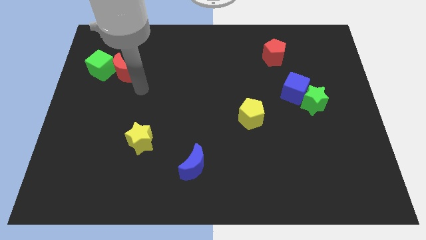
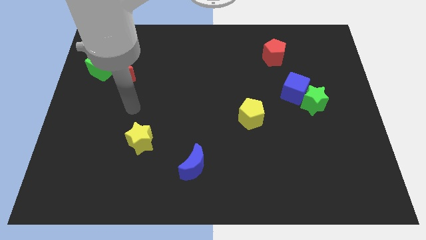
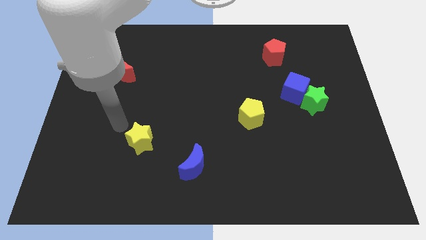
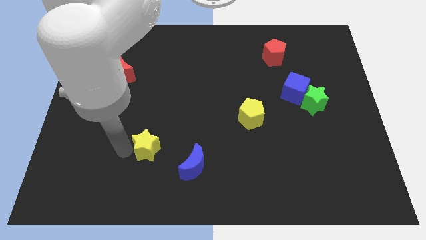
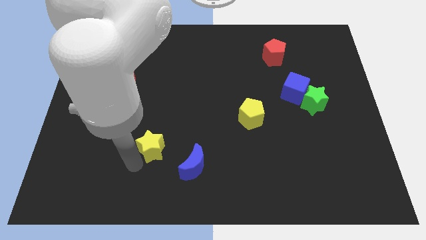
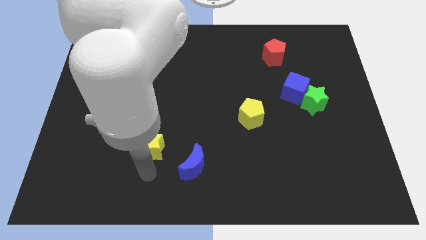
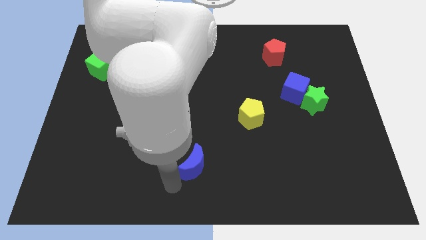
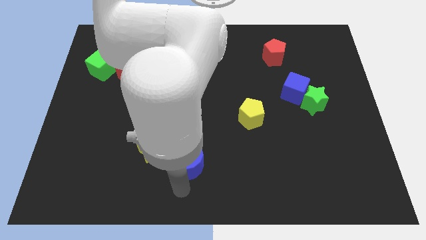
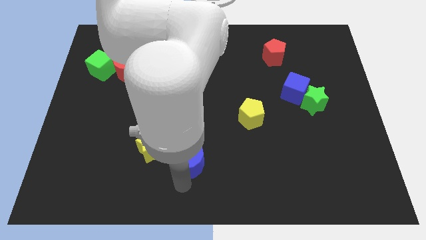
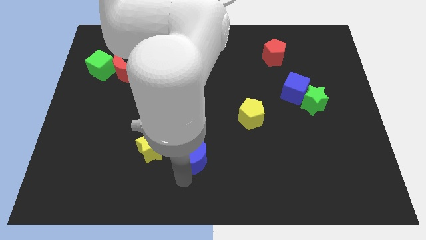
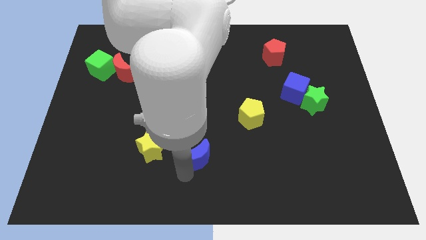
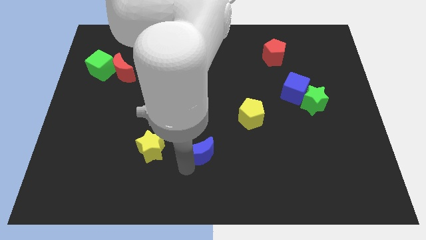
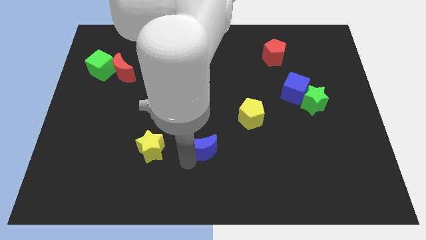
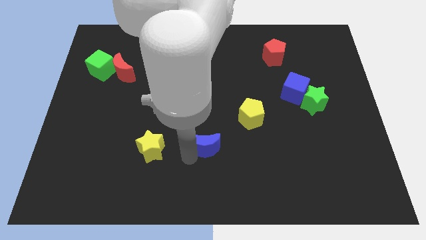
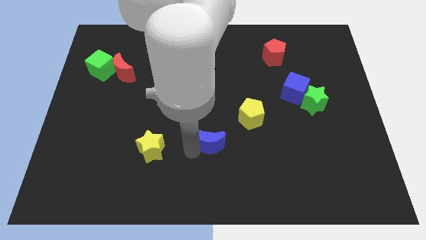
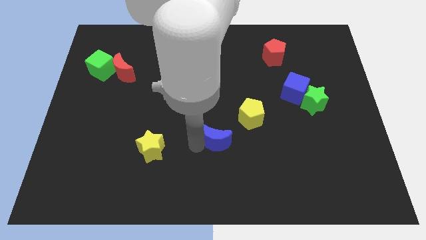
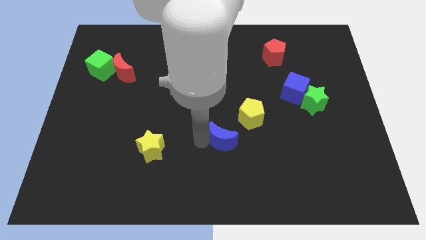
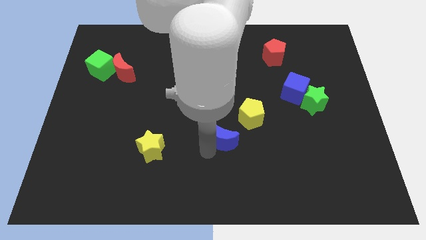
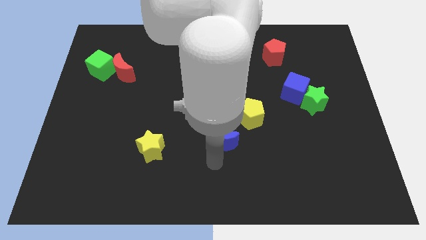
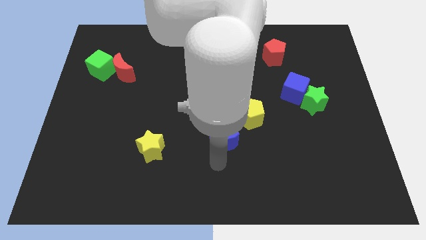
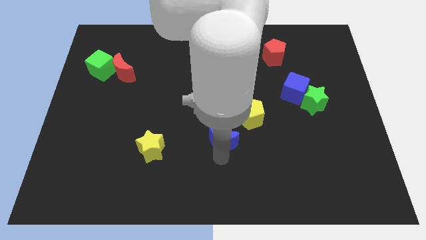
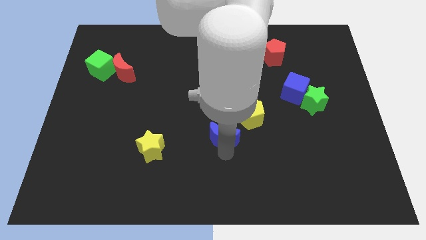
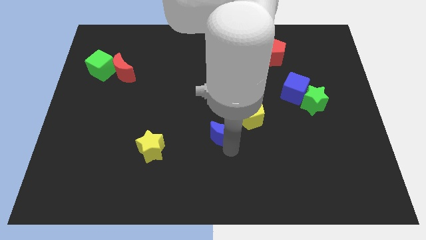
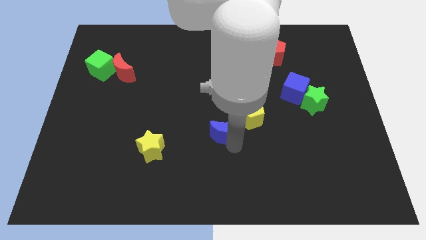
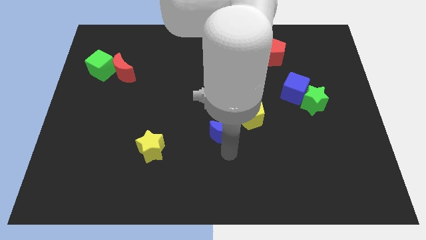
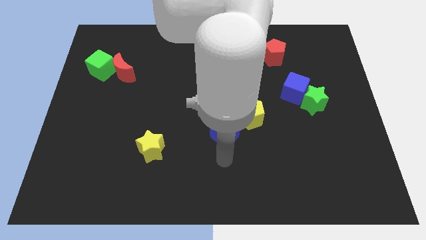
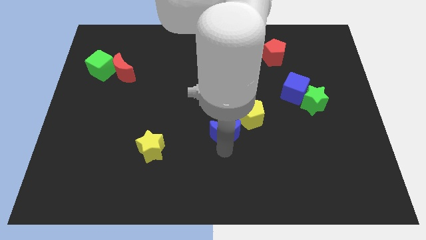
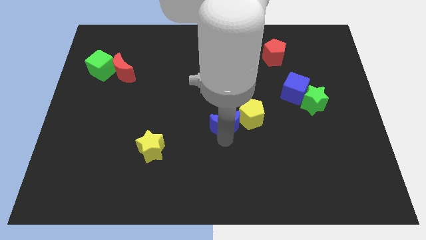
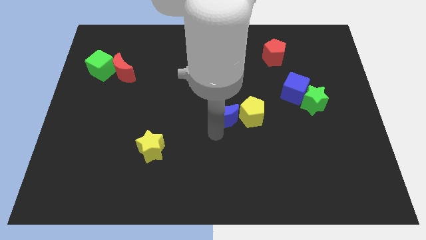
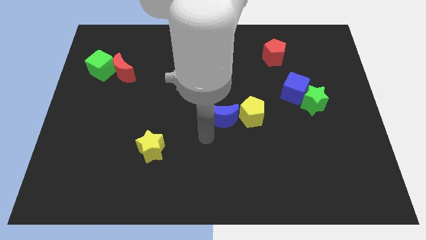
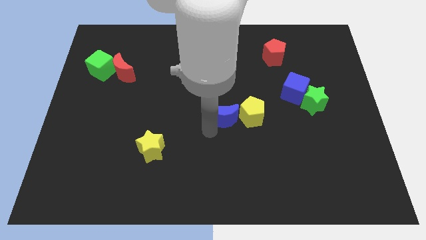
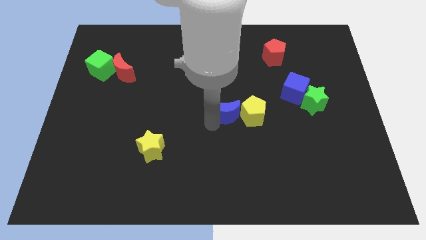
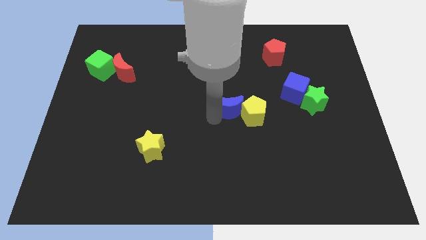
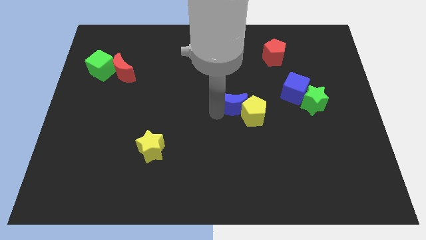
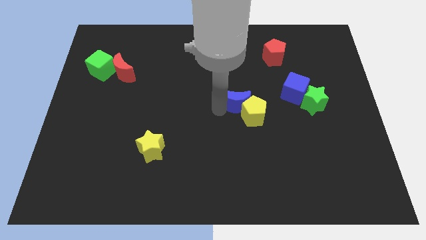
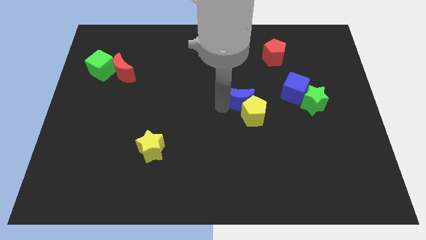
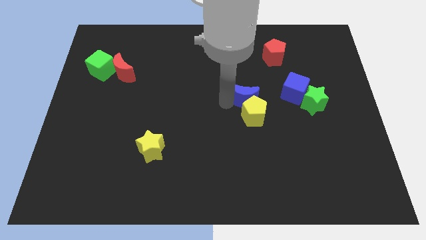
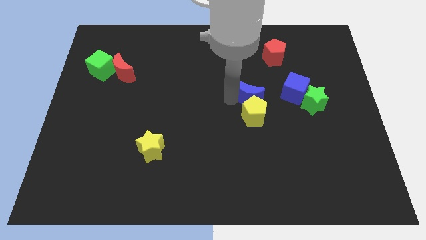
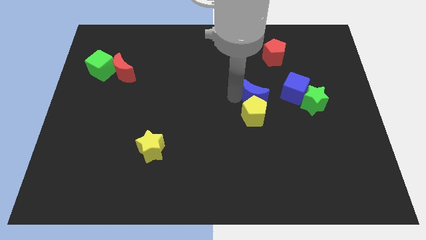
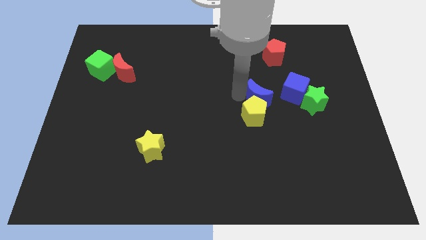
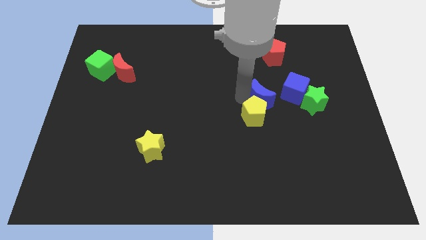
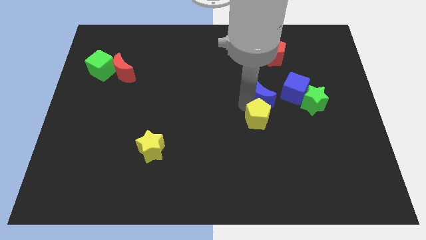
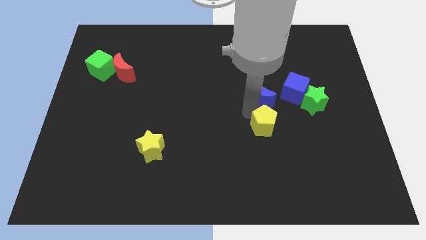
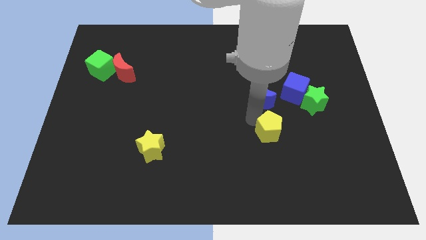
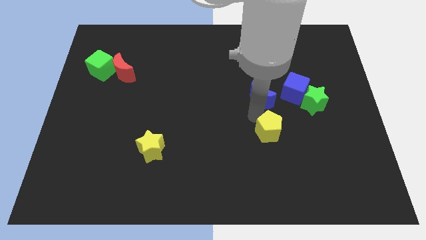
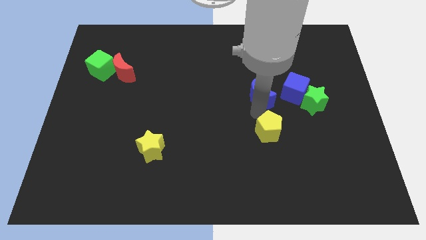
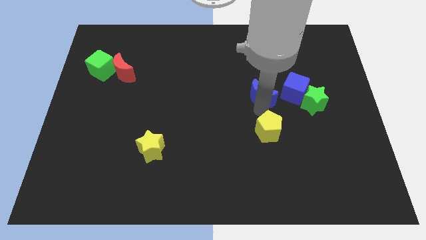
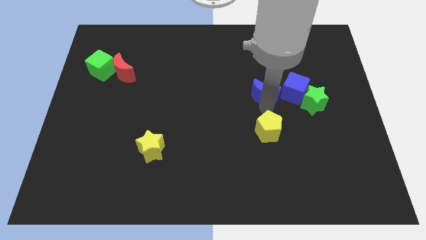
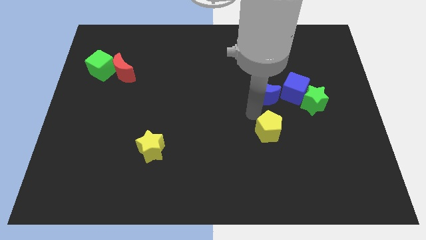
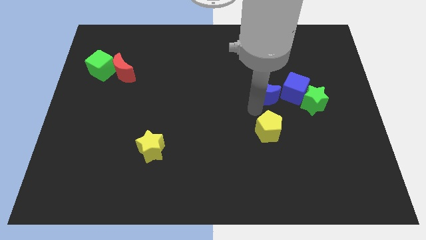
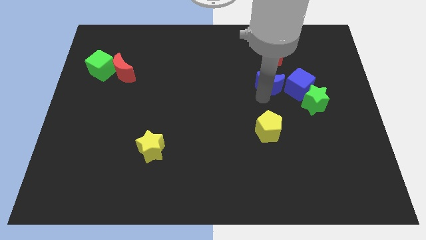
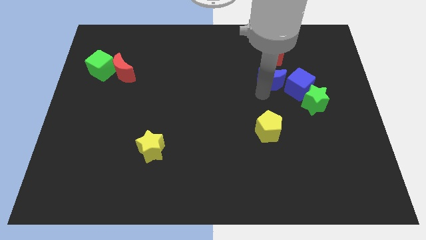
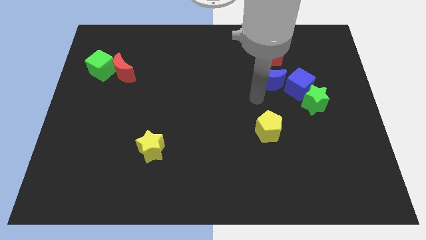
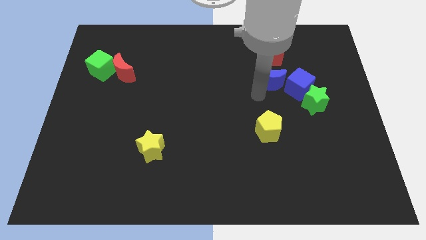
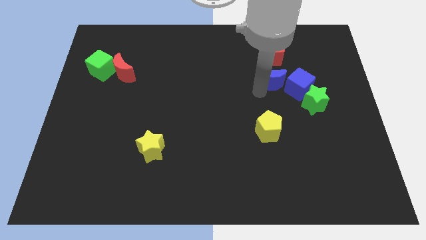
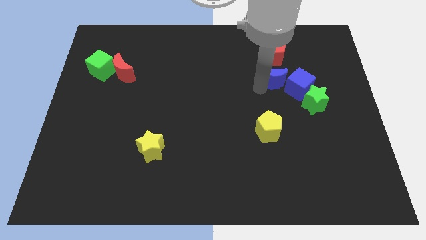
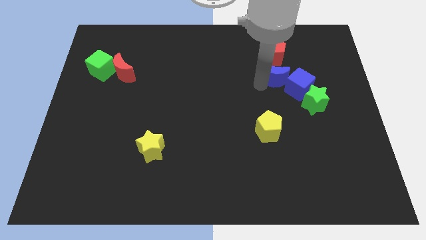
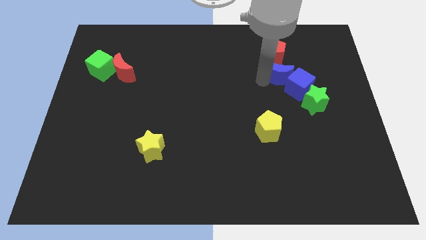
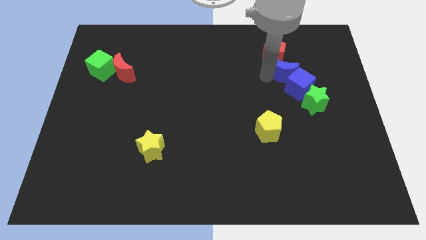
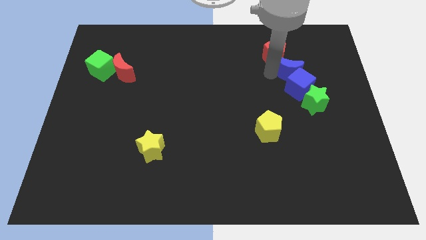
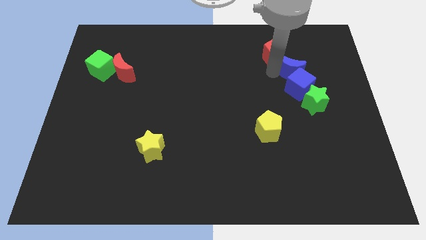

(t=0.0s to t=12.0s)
slide the blue moon to the top side of the green star

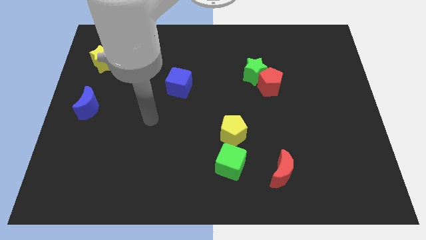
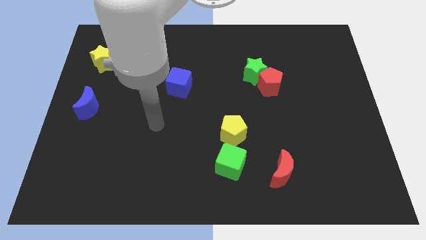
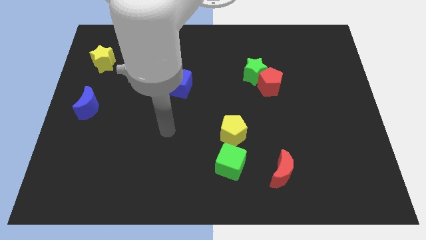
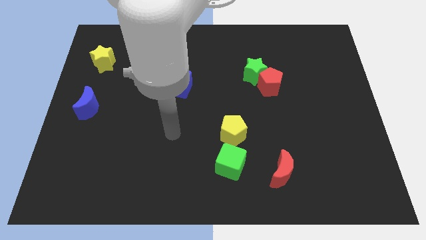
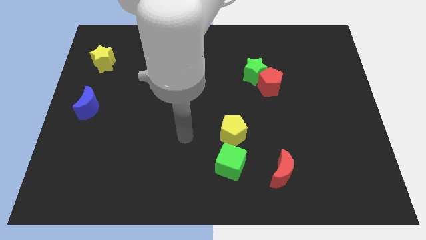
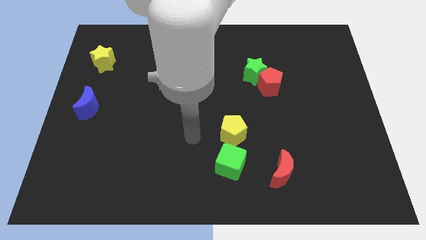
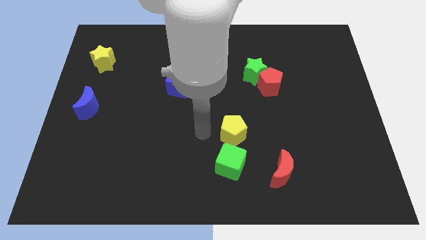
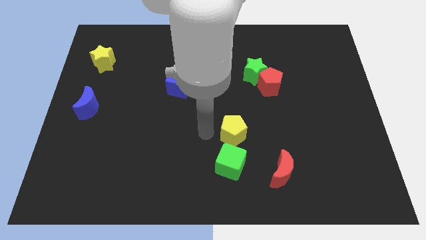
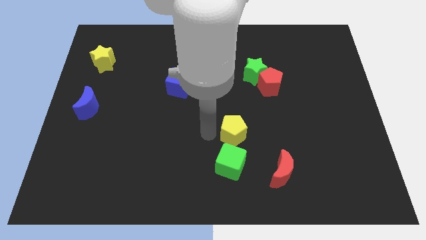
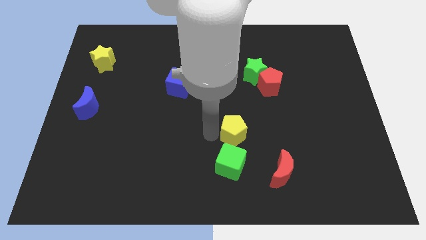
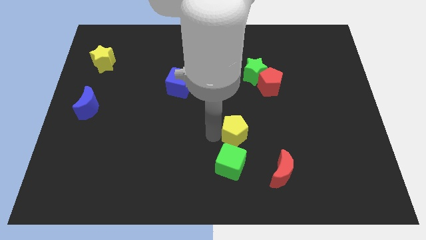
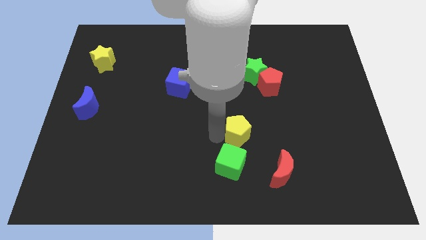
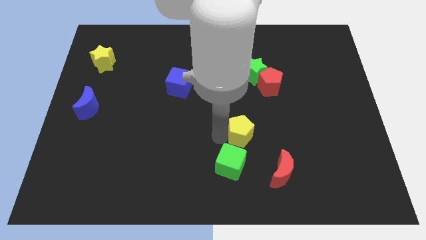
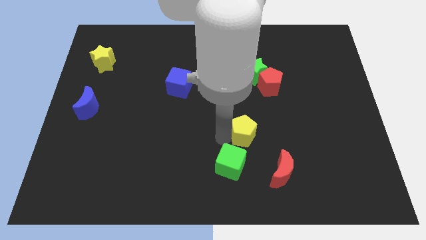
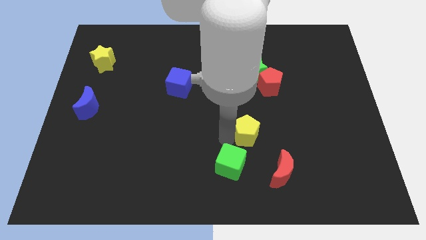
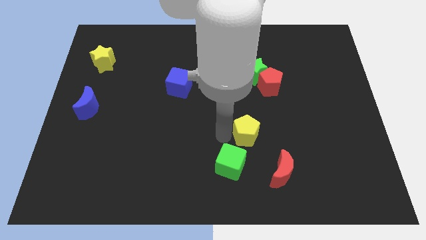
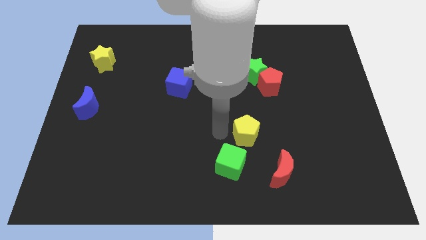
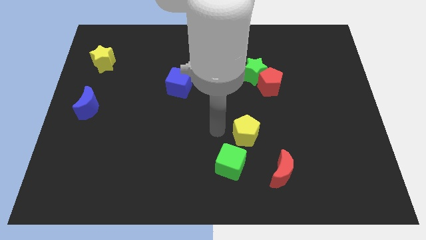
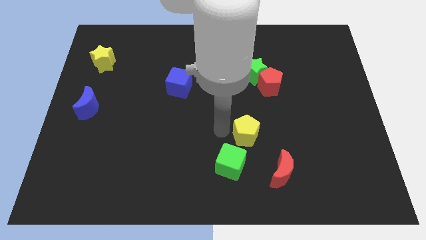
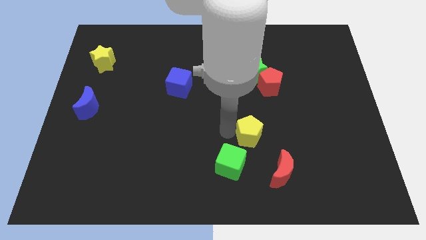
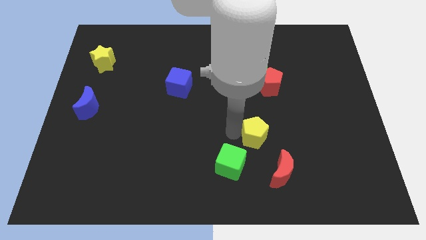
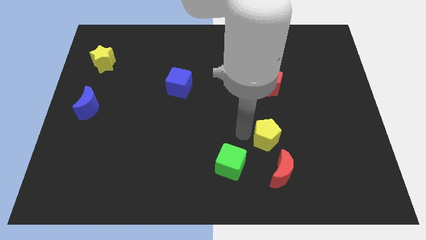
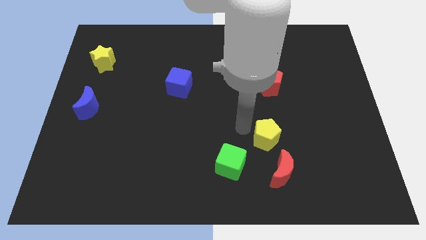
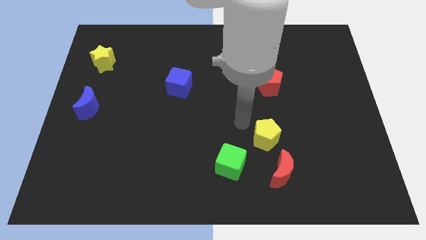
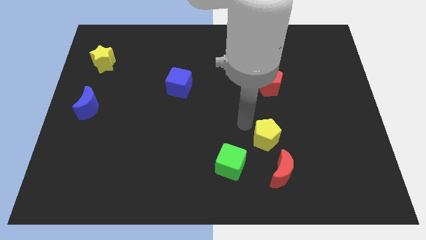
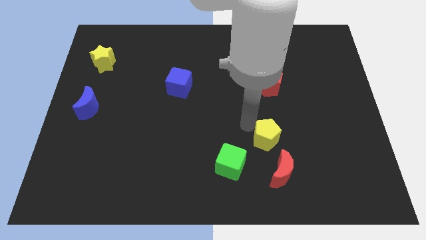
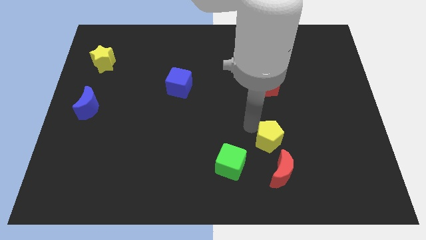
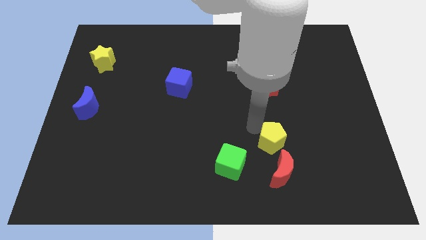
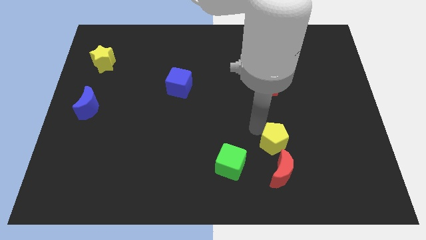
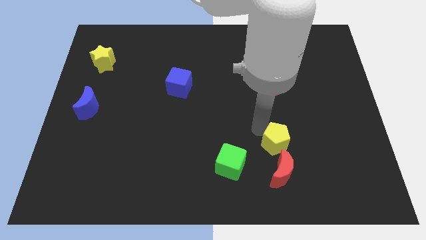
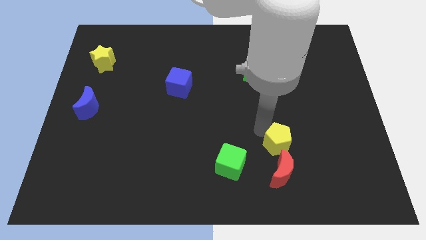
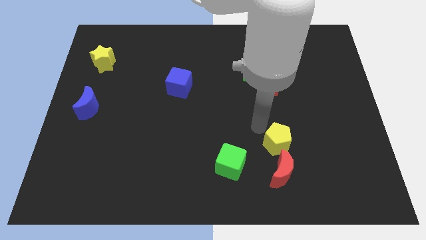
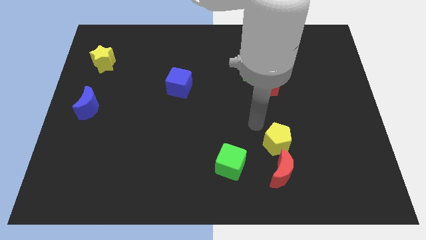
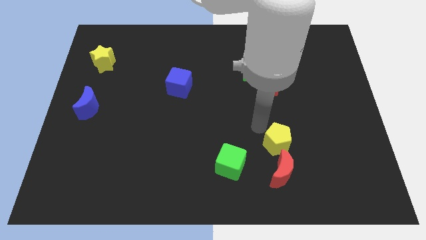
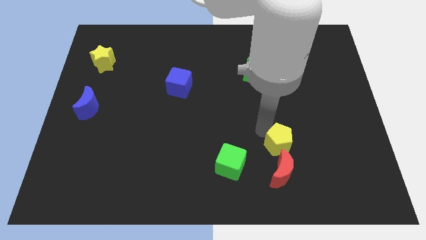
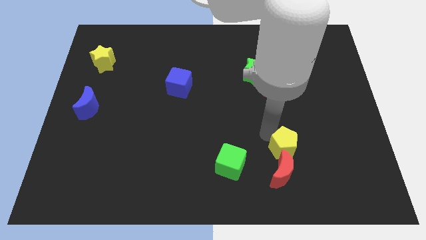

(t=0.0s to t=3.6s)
move the yellow pentagon just right of the green cube
